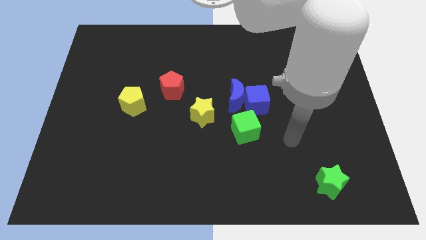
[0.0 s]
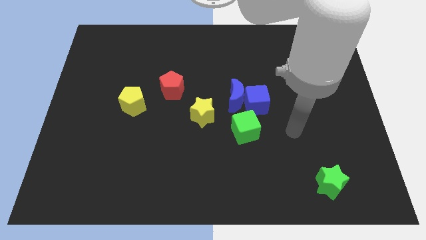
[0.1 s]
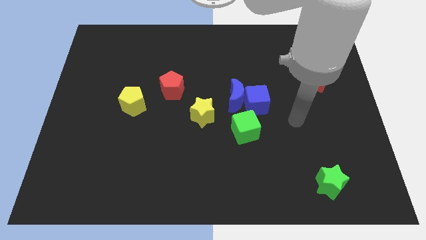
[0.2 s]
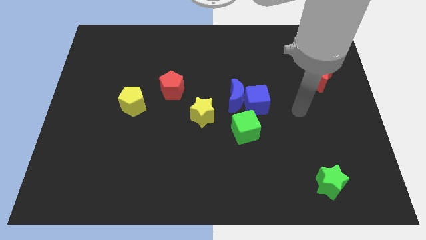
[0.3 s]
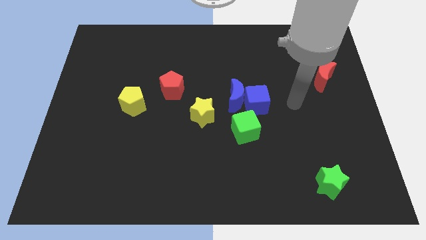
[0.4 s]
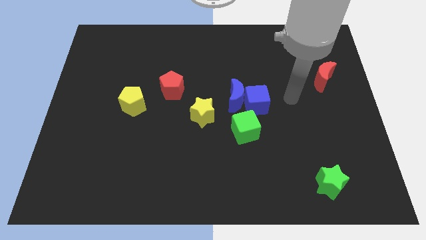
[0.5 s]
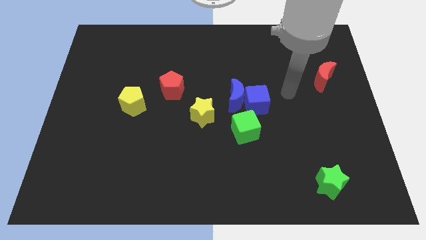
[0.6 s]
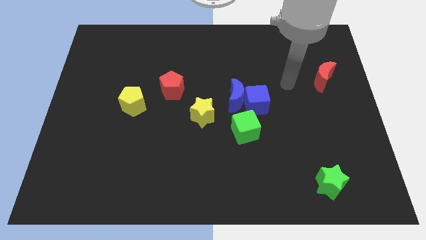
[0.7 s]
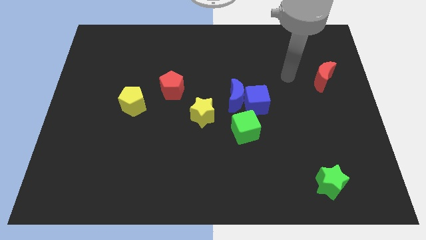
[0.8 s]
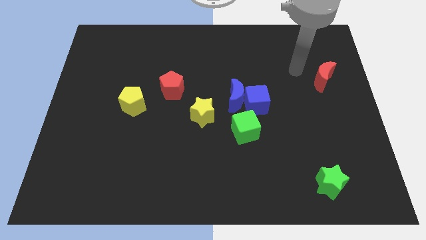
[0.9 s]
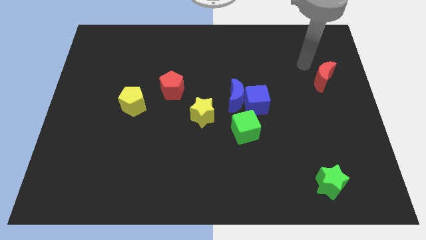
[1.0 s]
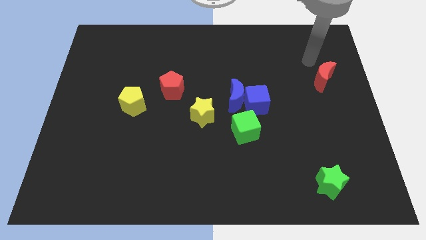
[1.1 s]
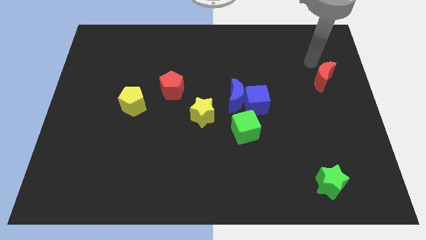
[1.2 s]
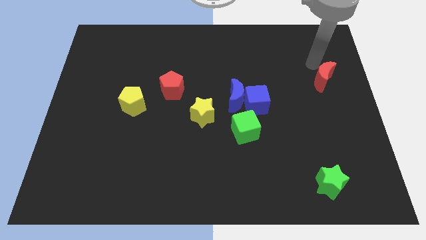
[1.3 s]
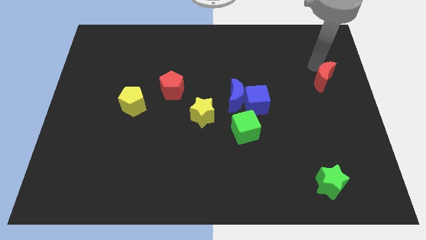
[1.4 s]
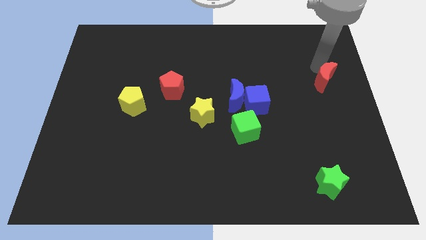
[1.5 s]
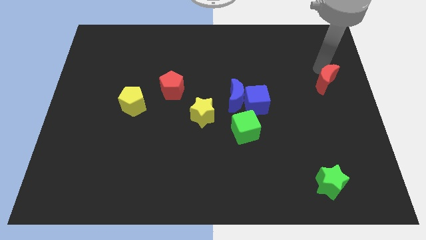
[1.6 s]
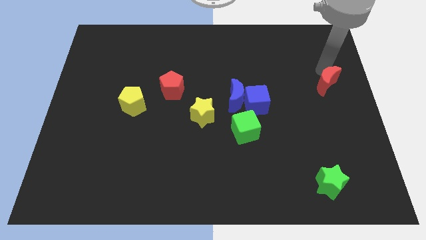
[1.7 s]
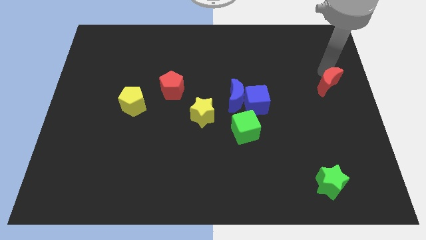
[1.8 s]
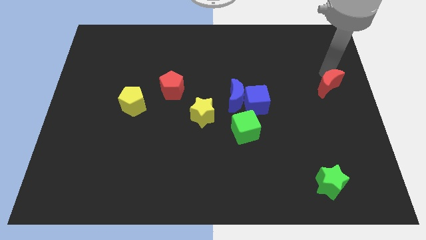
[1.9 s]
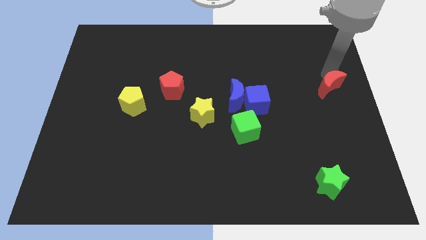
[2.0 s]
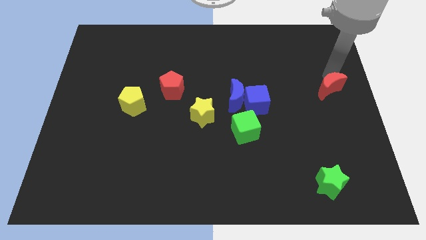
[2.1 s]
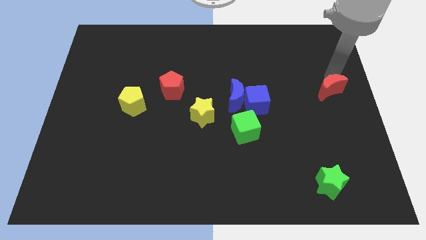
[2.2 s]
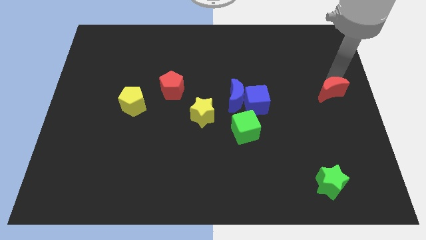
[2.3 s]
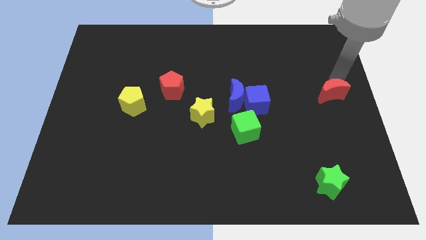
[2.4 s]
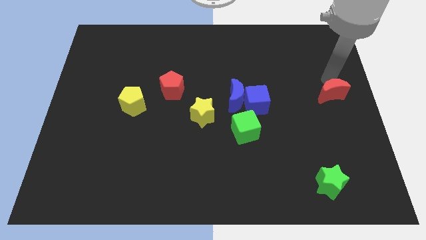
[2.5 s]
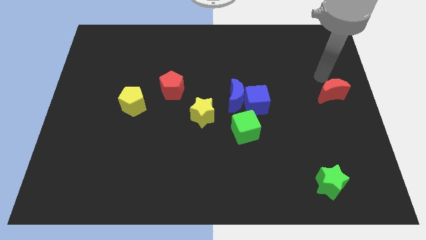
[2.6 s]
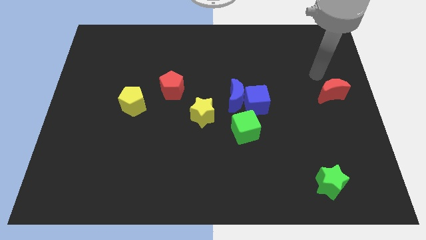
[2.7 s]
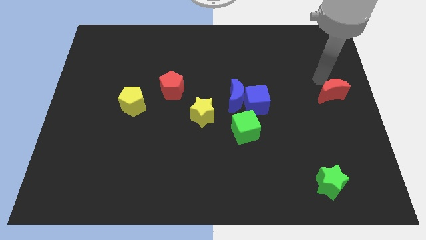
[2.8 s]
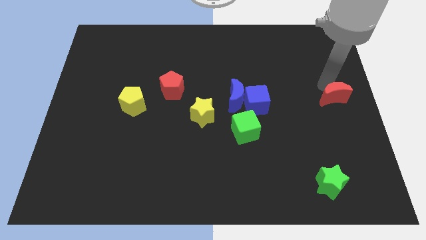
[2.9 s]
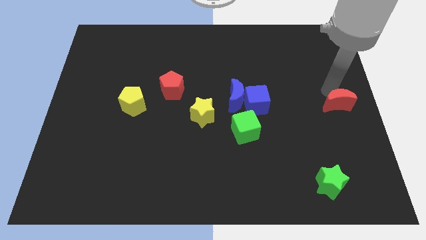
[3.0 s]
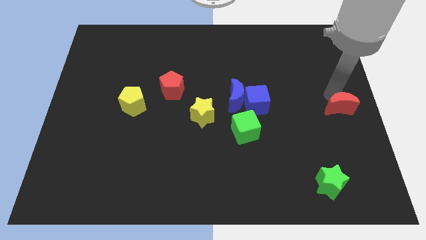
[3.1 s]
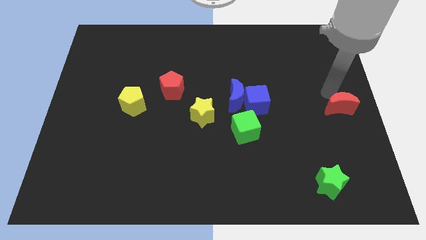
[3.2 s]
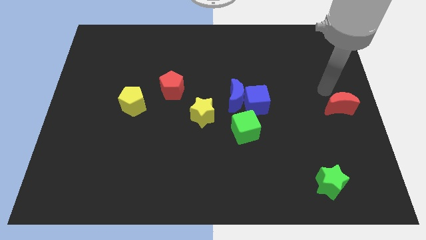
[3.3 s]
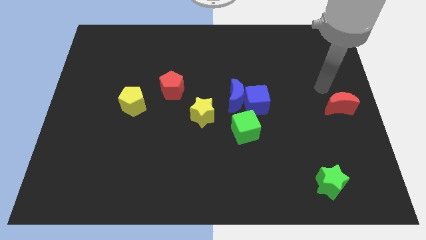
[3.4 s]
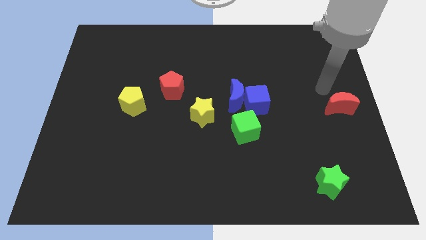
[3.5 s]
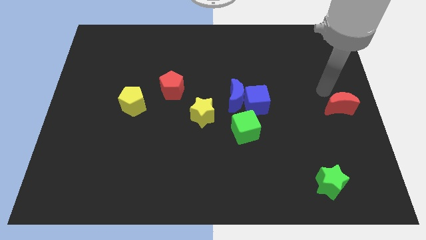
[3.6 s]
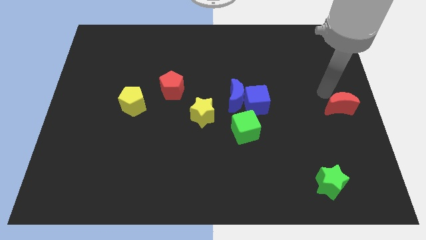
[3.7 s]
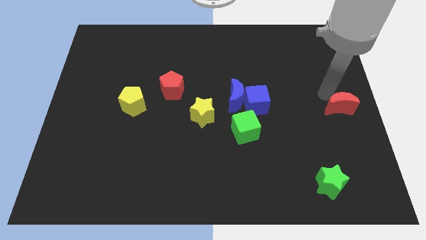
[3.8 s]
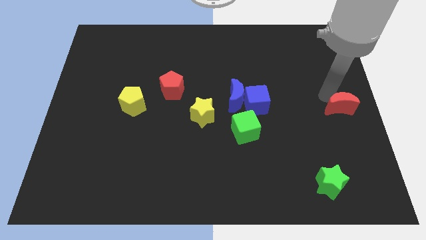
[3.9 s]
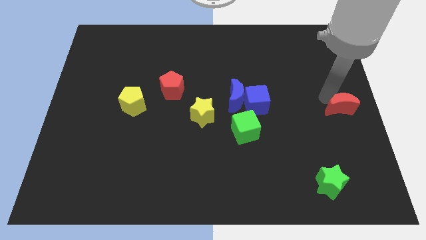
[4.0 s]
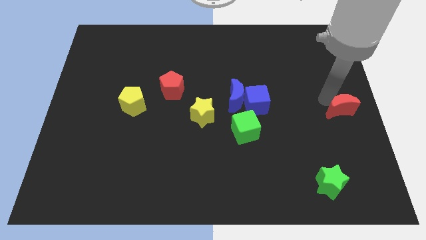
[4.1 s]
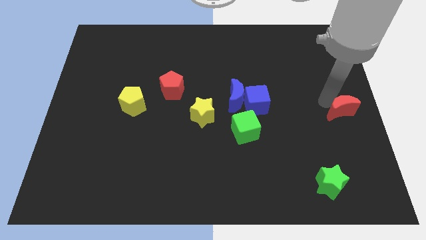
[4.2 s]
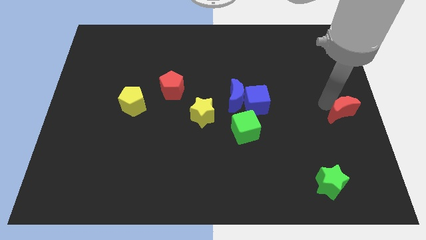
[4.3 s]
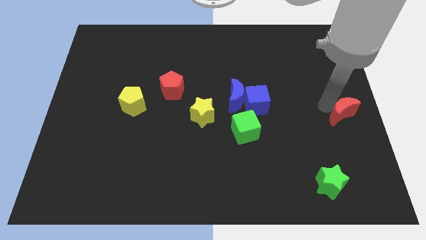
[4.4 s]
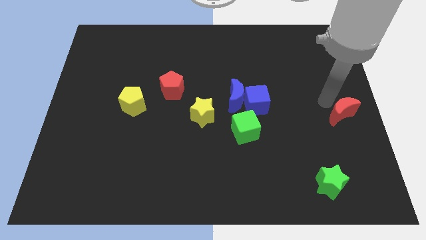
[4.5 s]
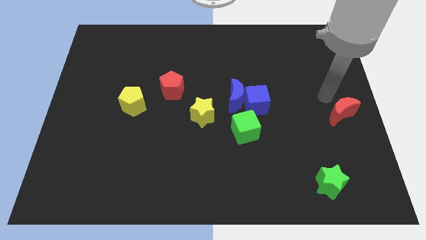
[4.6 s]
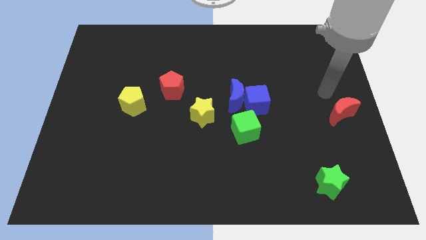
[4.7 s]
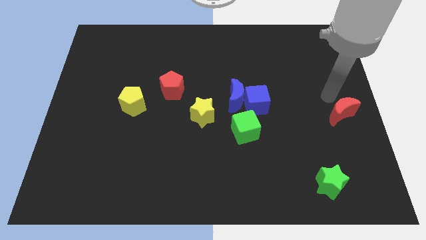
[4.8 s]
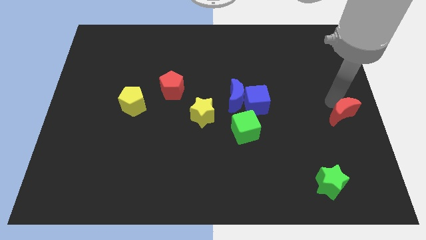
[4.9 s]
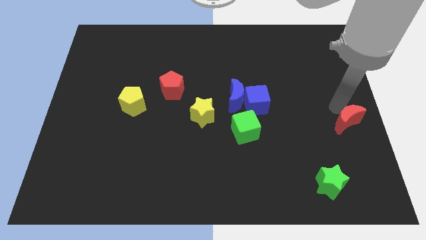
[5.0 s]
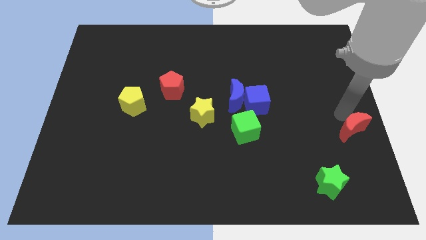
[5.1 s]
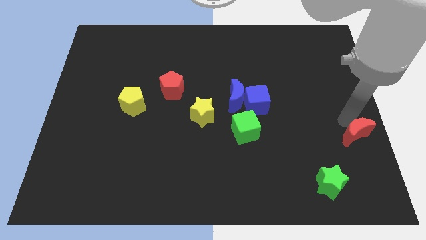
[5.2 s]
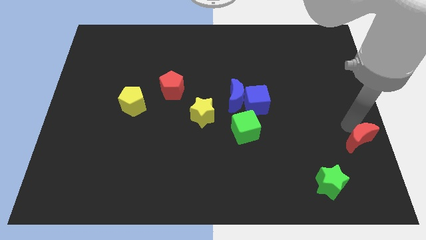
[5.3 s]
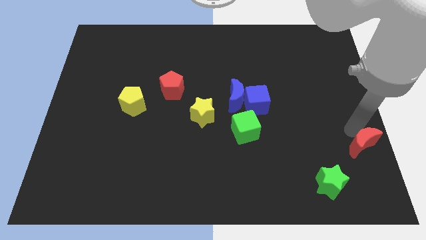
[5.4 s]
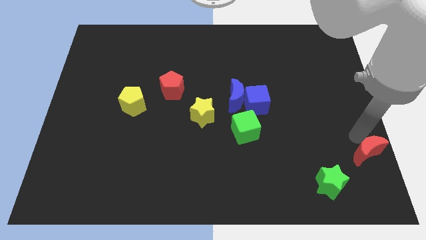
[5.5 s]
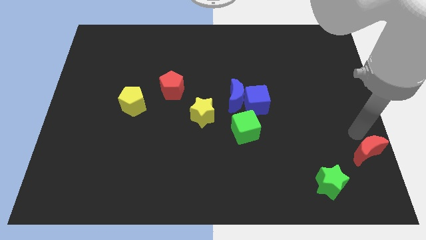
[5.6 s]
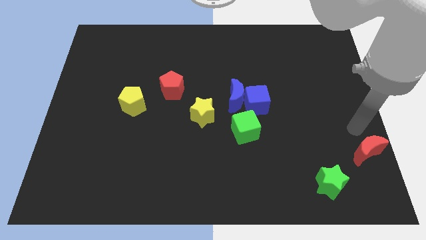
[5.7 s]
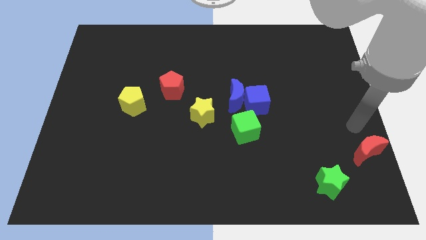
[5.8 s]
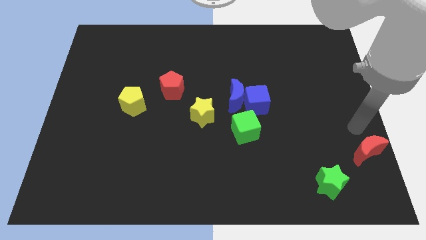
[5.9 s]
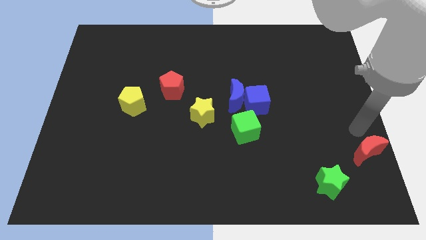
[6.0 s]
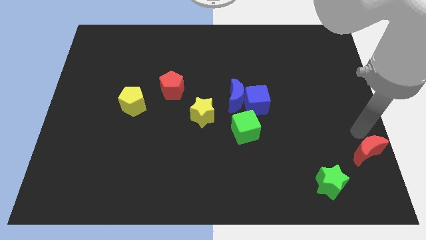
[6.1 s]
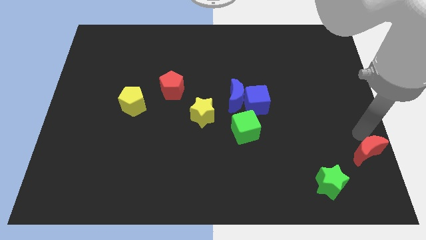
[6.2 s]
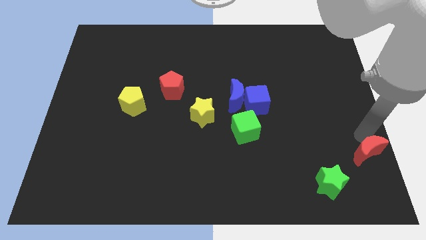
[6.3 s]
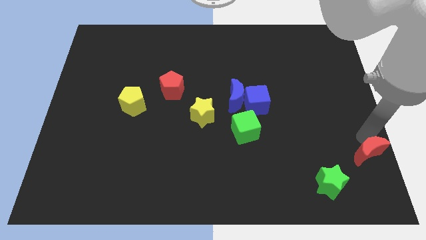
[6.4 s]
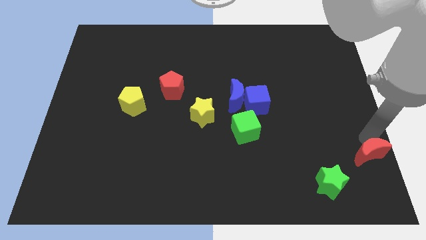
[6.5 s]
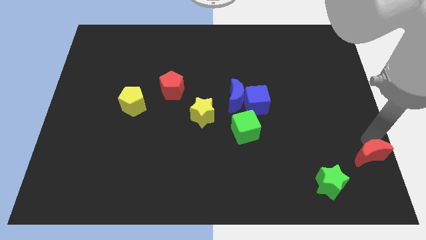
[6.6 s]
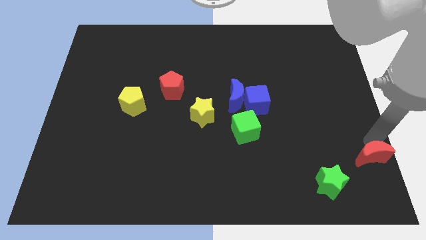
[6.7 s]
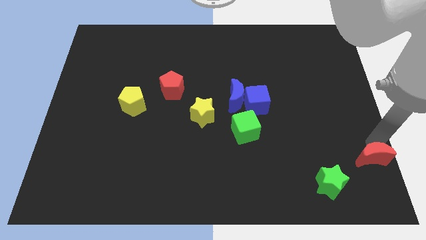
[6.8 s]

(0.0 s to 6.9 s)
slide the red moon to the bottom right
